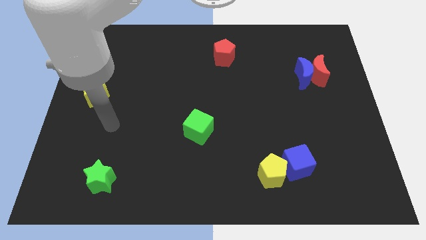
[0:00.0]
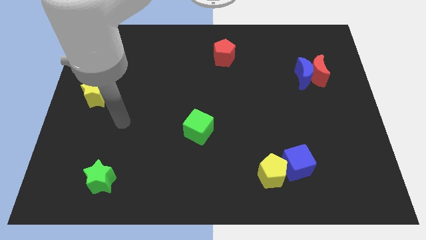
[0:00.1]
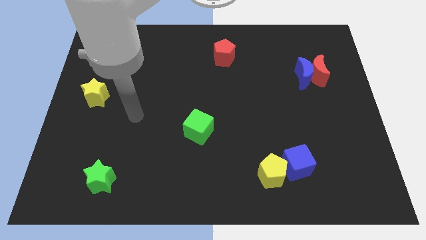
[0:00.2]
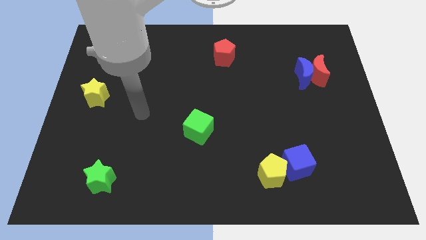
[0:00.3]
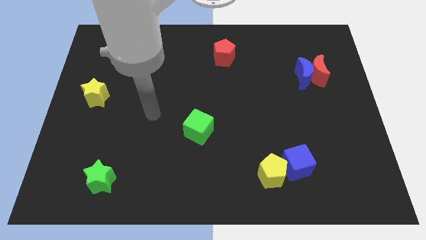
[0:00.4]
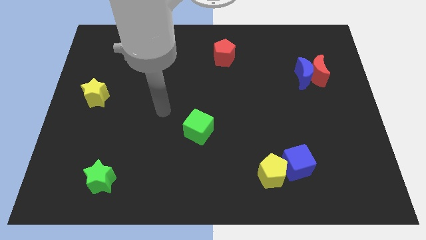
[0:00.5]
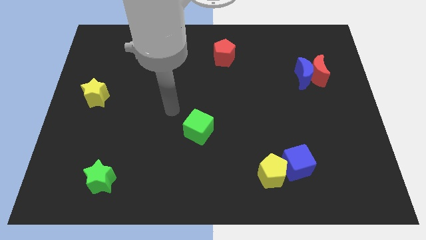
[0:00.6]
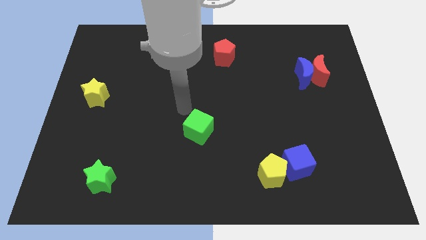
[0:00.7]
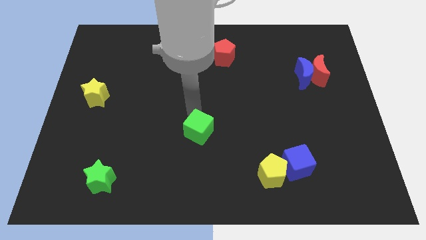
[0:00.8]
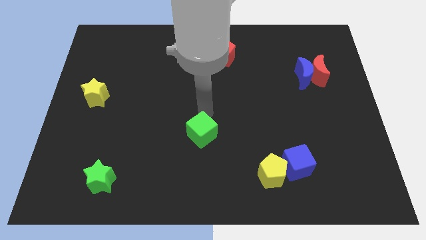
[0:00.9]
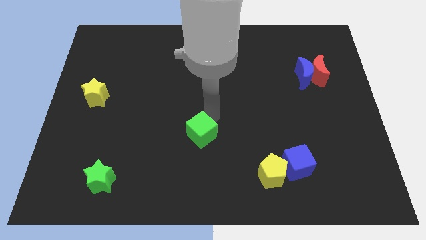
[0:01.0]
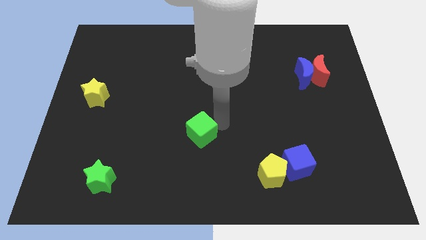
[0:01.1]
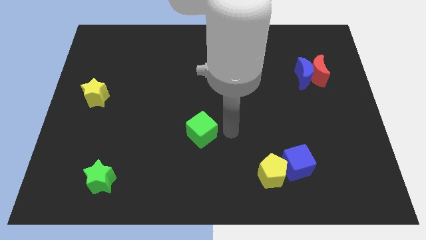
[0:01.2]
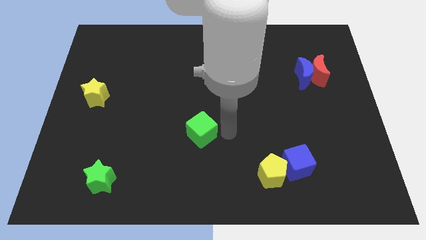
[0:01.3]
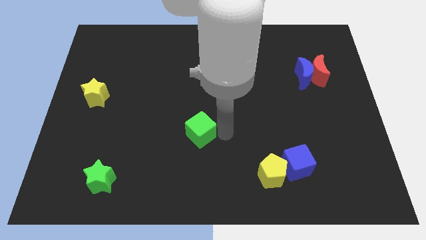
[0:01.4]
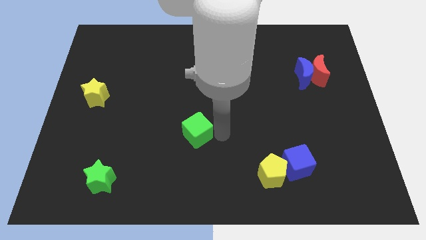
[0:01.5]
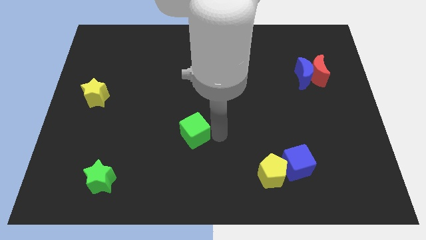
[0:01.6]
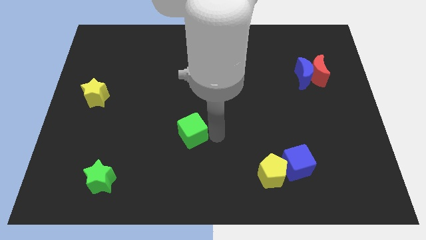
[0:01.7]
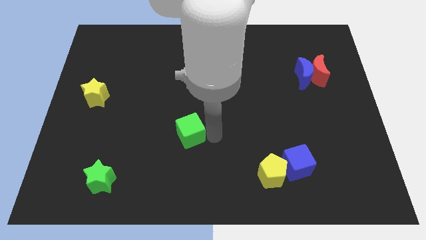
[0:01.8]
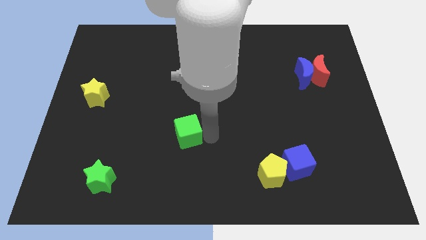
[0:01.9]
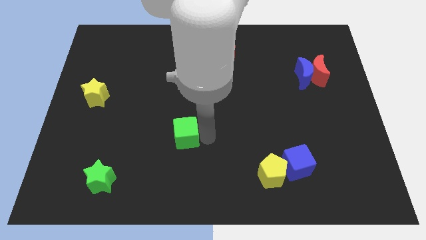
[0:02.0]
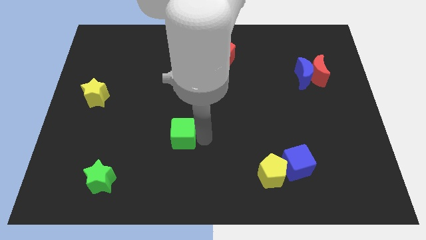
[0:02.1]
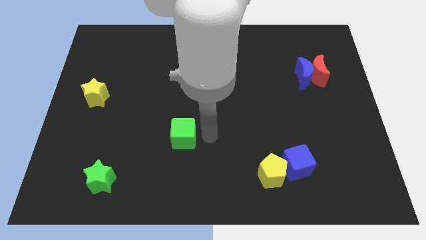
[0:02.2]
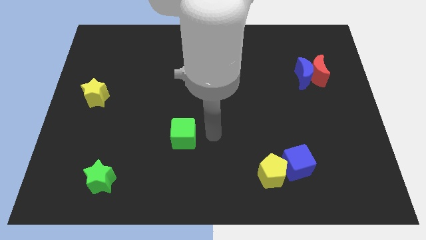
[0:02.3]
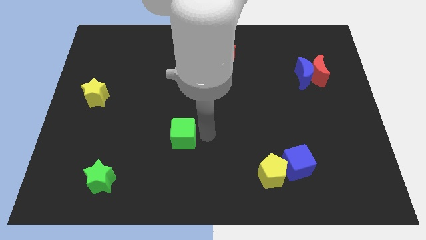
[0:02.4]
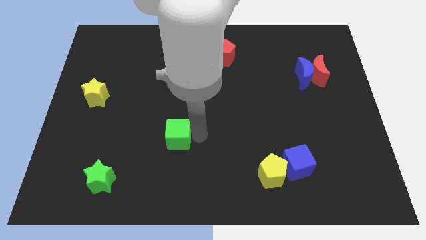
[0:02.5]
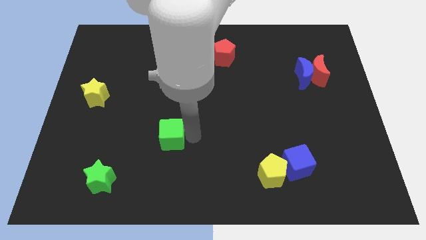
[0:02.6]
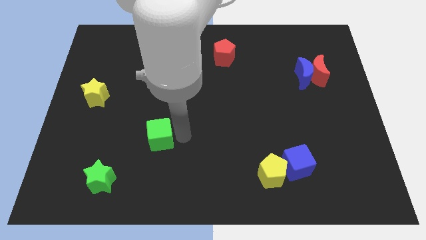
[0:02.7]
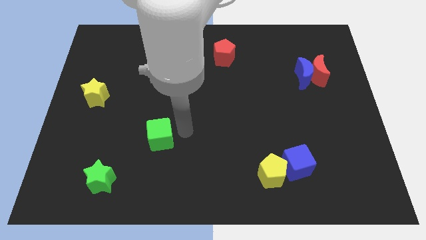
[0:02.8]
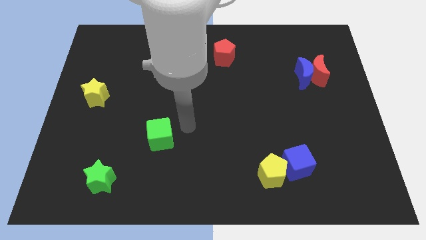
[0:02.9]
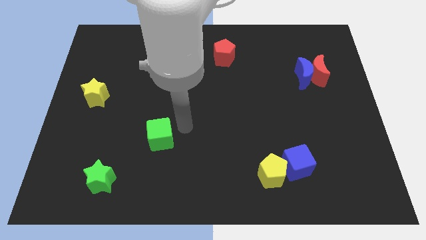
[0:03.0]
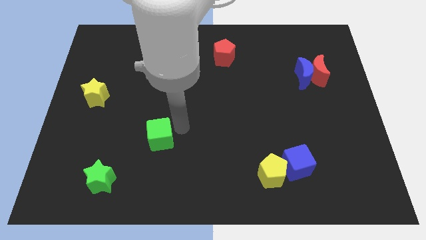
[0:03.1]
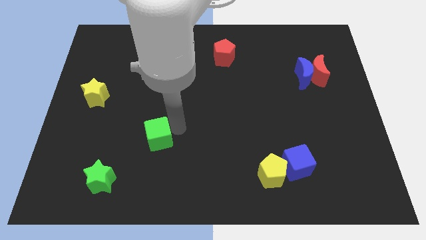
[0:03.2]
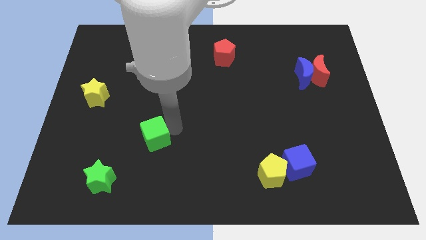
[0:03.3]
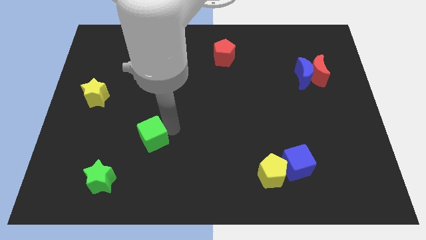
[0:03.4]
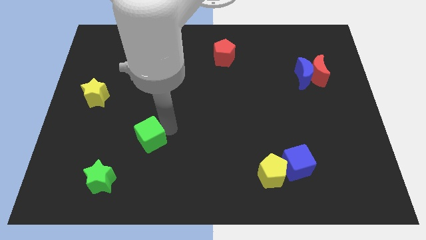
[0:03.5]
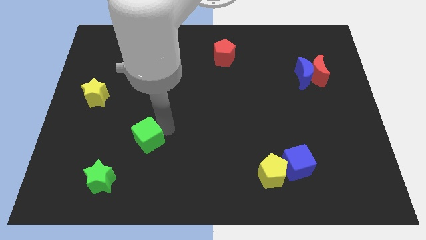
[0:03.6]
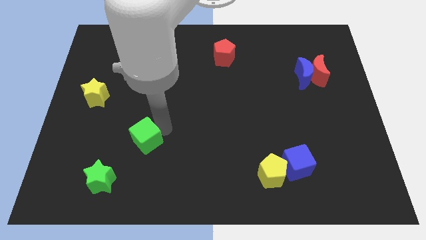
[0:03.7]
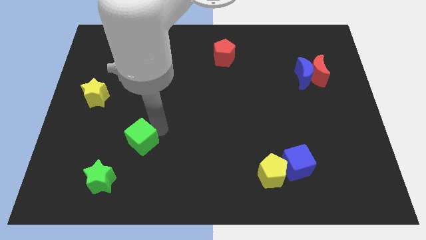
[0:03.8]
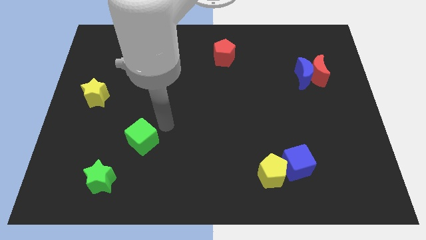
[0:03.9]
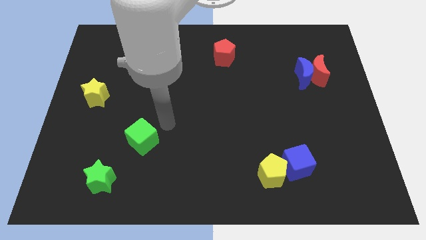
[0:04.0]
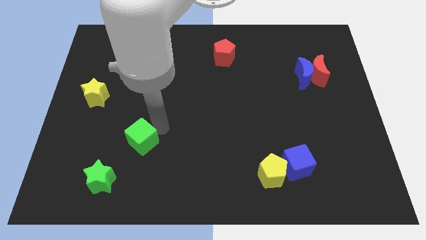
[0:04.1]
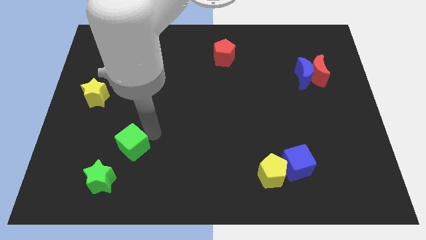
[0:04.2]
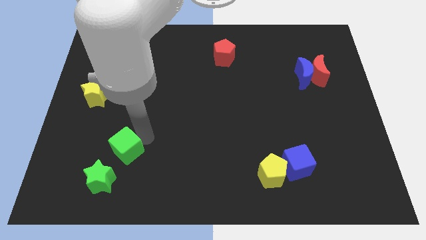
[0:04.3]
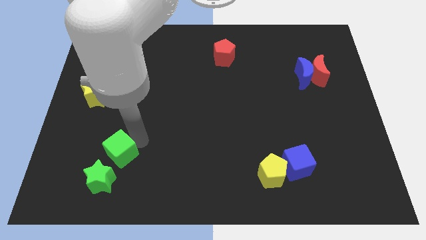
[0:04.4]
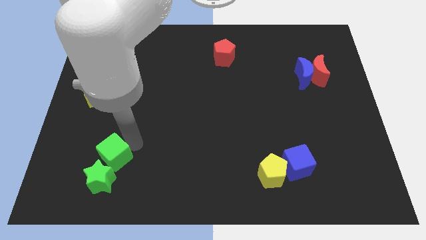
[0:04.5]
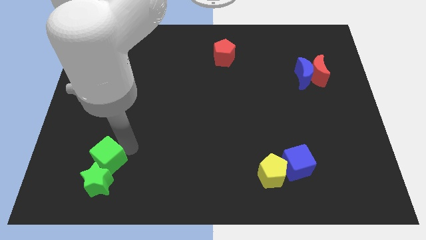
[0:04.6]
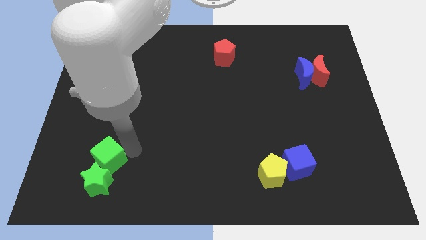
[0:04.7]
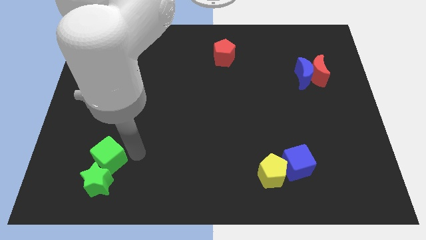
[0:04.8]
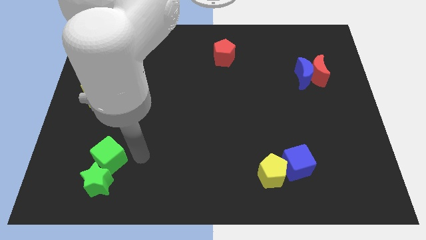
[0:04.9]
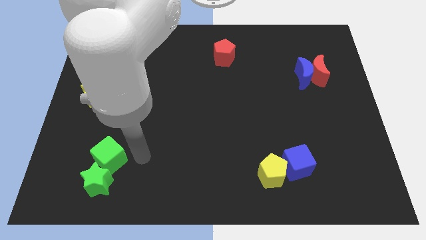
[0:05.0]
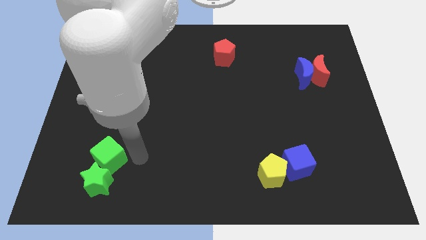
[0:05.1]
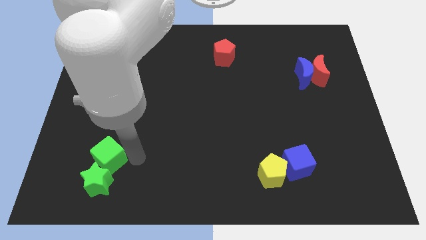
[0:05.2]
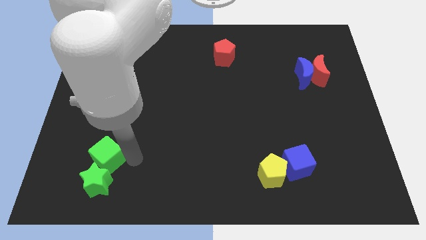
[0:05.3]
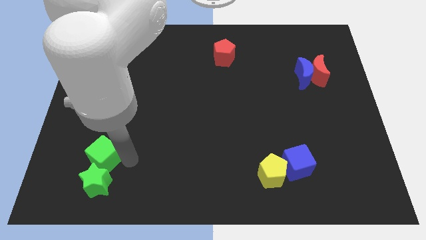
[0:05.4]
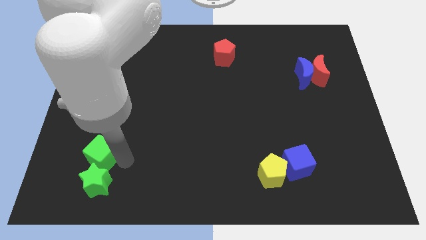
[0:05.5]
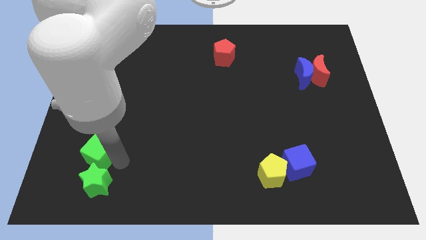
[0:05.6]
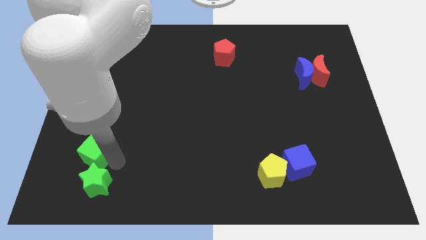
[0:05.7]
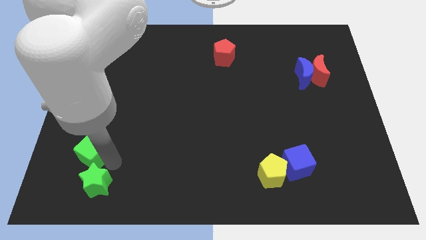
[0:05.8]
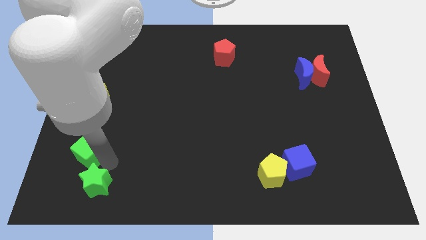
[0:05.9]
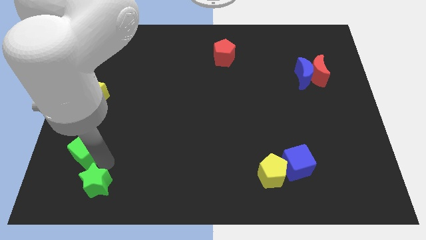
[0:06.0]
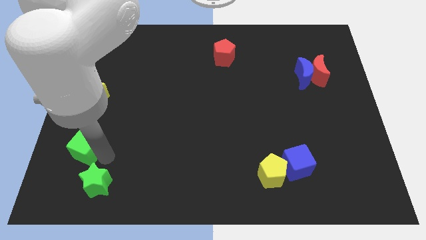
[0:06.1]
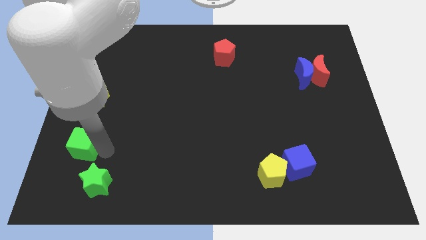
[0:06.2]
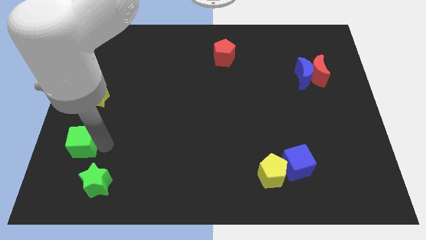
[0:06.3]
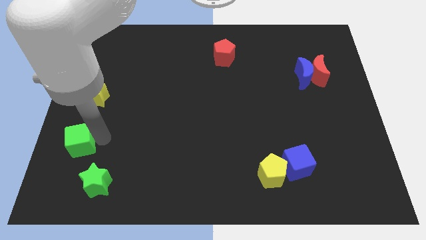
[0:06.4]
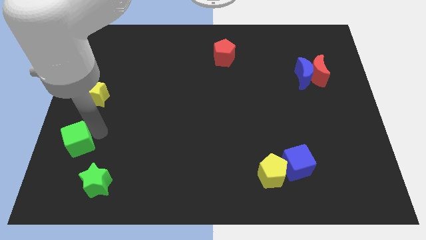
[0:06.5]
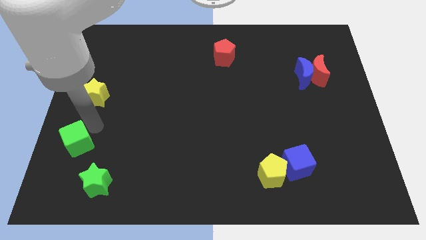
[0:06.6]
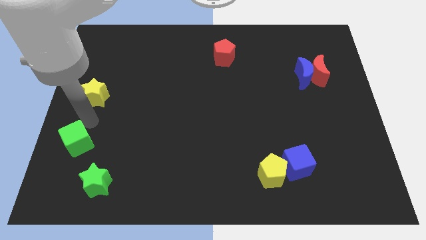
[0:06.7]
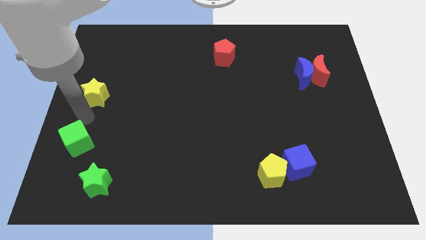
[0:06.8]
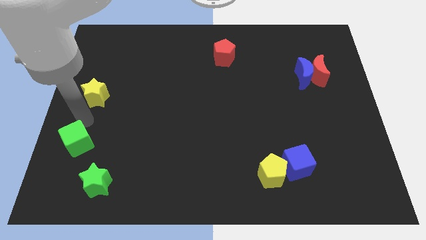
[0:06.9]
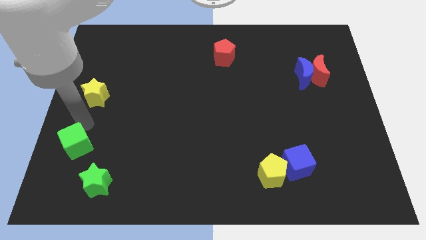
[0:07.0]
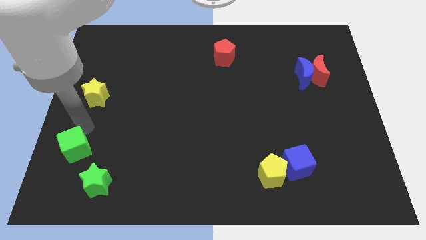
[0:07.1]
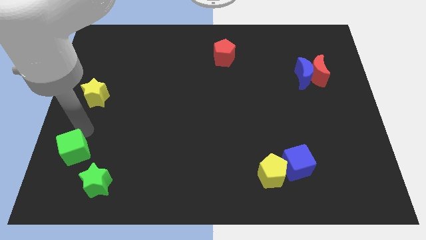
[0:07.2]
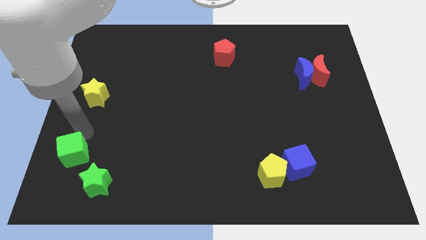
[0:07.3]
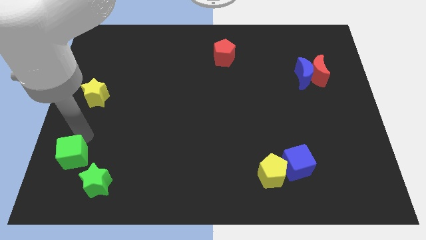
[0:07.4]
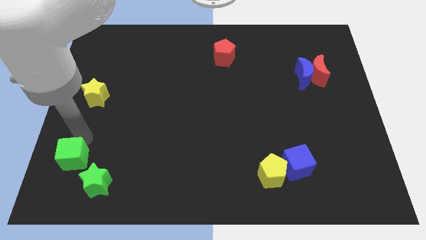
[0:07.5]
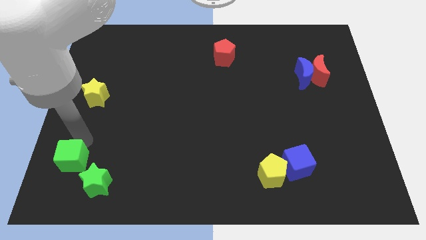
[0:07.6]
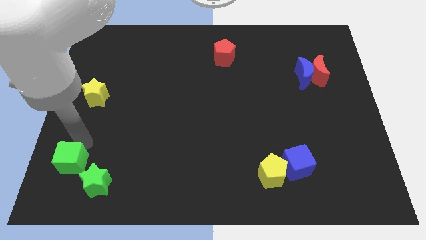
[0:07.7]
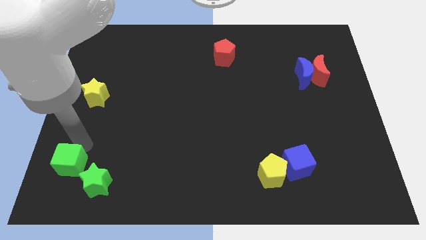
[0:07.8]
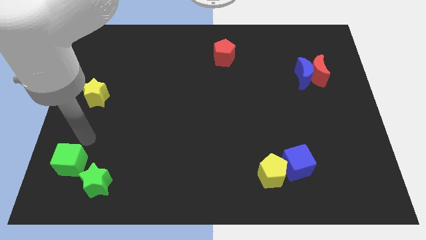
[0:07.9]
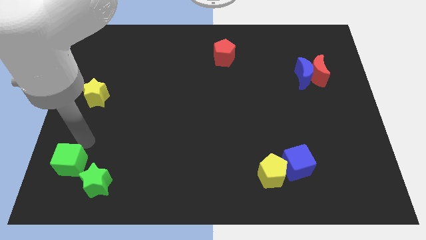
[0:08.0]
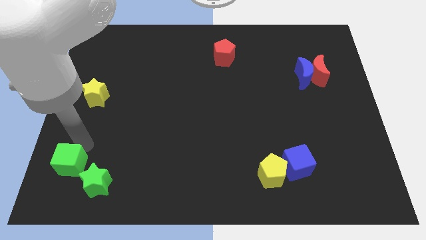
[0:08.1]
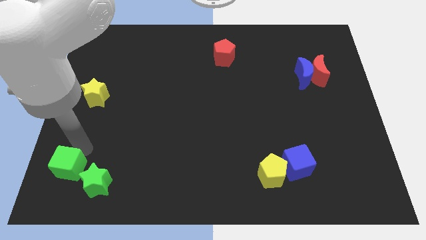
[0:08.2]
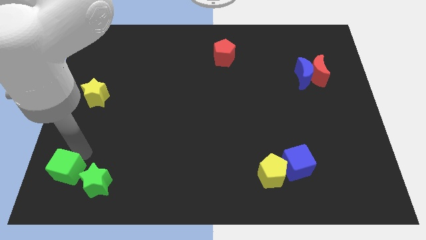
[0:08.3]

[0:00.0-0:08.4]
put the green cube to the lower left corner
